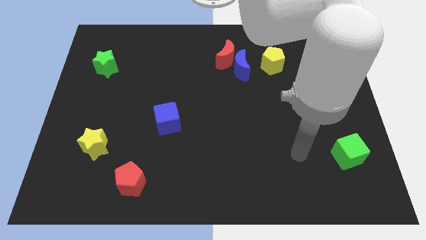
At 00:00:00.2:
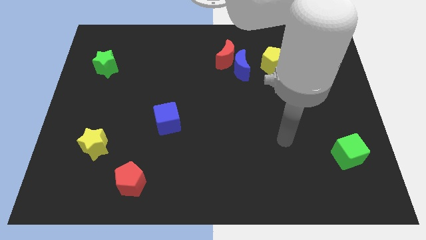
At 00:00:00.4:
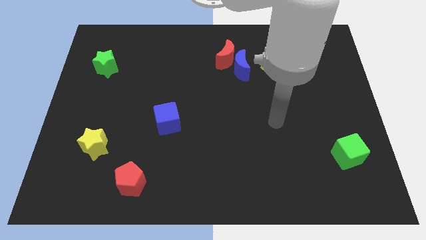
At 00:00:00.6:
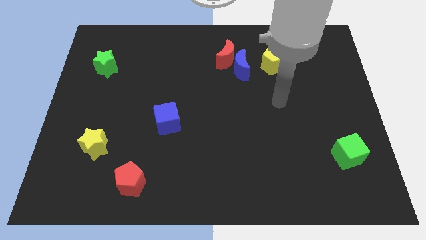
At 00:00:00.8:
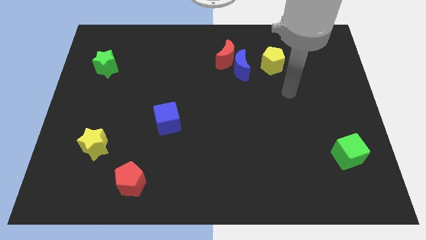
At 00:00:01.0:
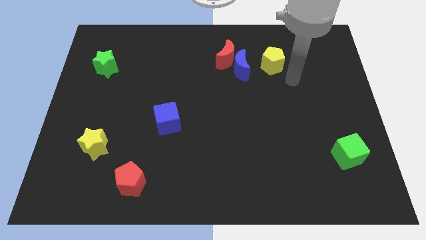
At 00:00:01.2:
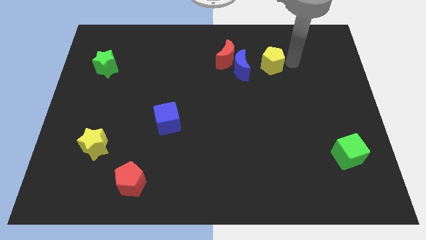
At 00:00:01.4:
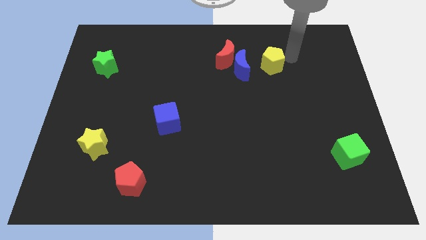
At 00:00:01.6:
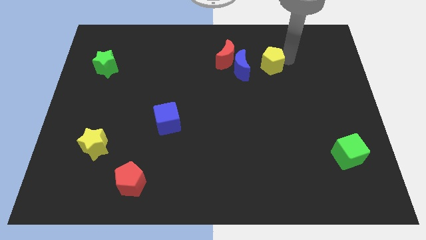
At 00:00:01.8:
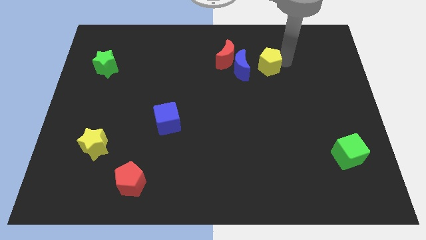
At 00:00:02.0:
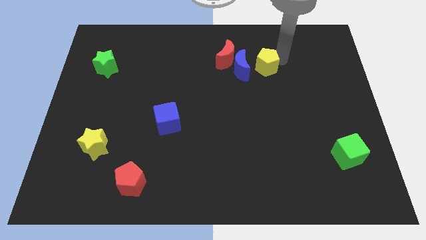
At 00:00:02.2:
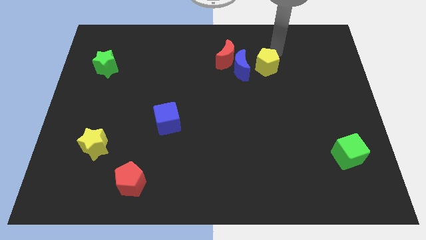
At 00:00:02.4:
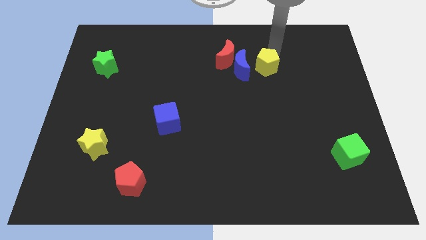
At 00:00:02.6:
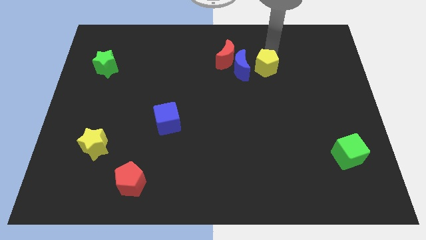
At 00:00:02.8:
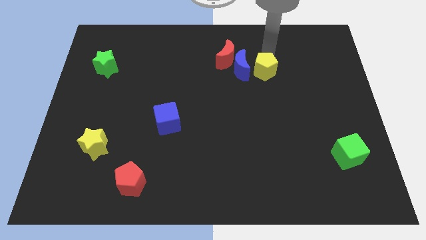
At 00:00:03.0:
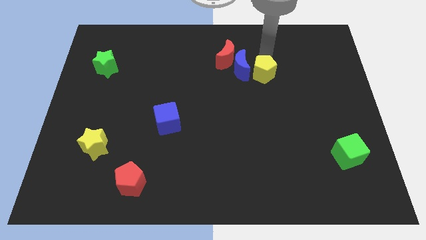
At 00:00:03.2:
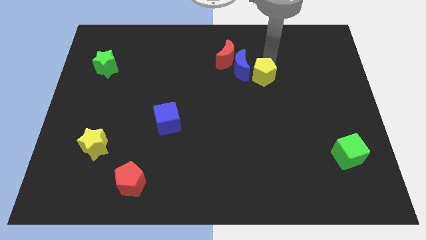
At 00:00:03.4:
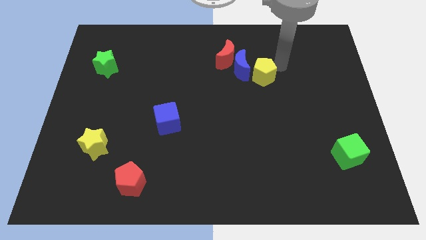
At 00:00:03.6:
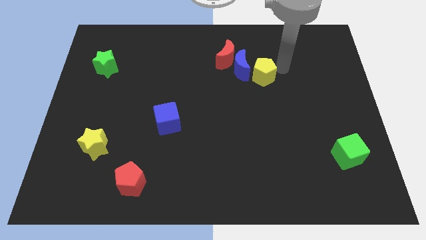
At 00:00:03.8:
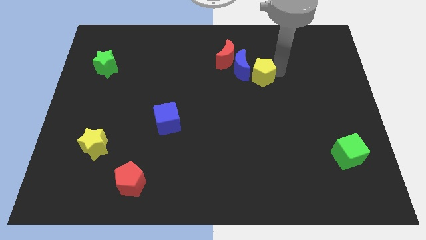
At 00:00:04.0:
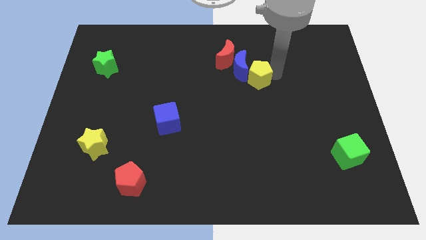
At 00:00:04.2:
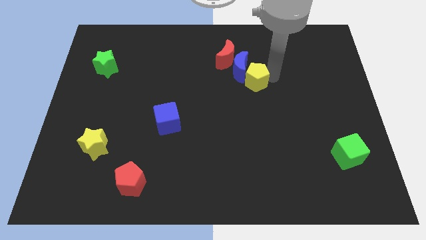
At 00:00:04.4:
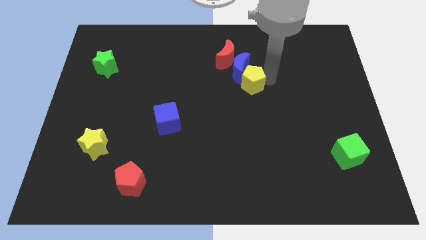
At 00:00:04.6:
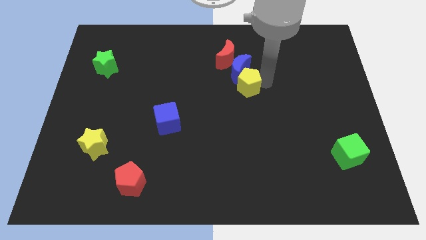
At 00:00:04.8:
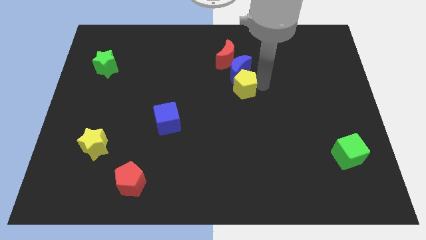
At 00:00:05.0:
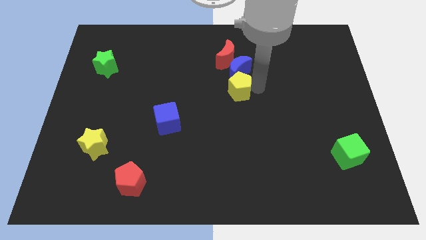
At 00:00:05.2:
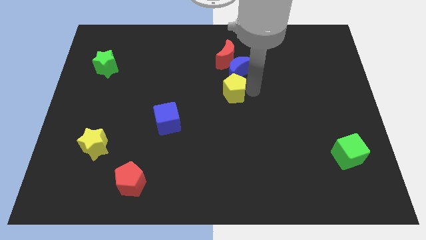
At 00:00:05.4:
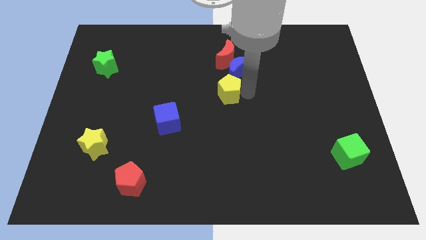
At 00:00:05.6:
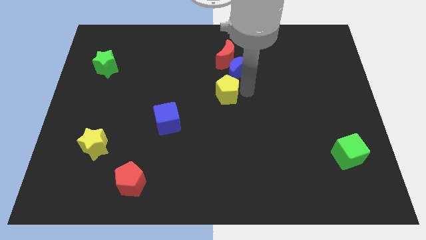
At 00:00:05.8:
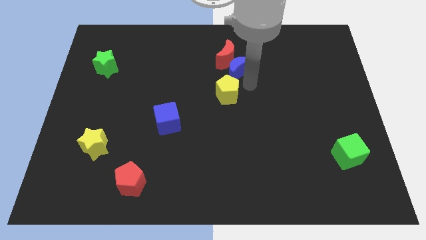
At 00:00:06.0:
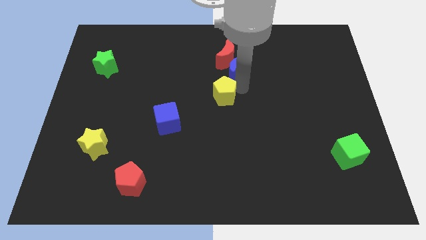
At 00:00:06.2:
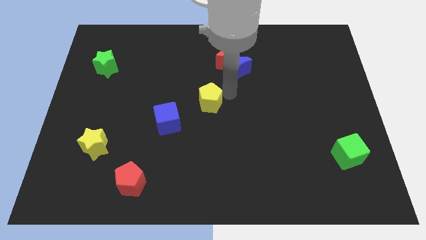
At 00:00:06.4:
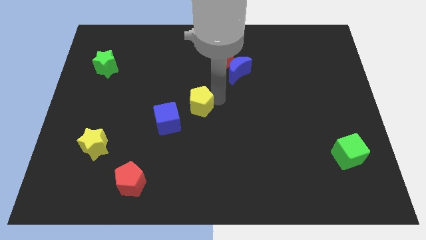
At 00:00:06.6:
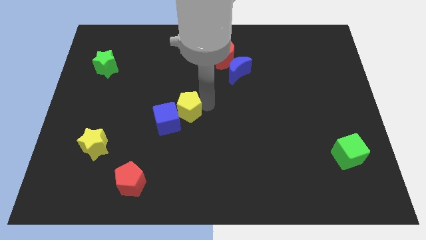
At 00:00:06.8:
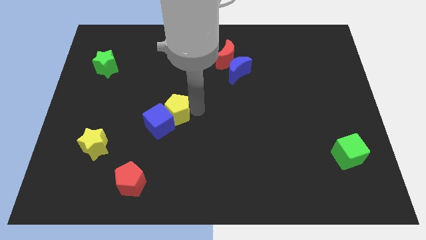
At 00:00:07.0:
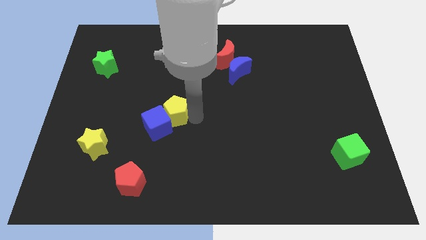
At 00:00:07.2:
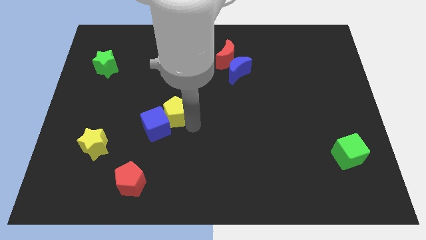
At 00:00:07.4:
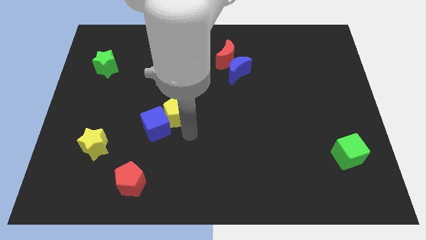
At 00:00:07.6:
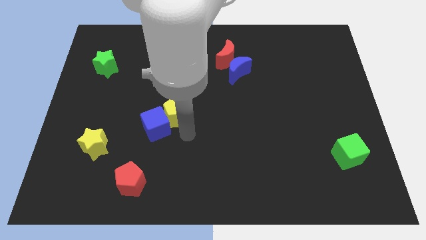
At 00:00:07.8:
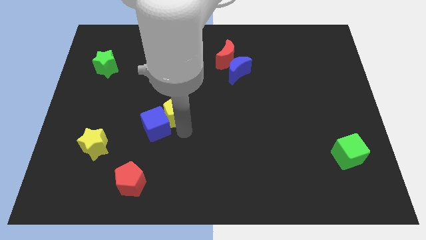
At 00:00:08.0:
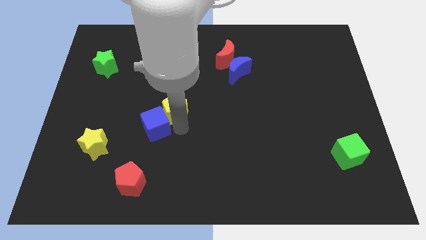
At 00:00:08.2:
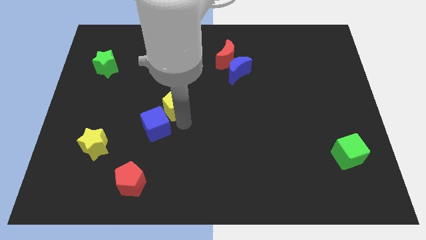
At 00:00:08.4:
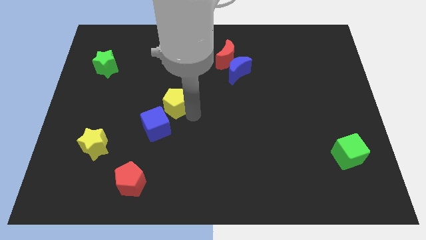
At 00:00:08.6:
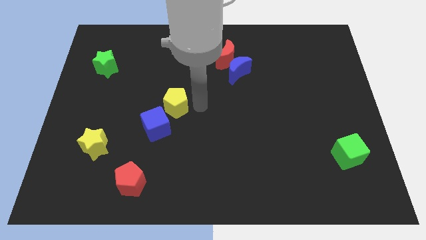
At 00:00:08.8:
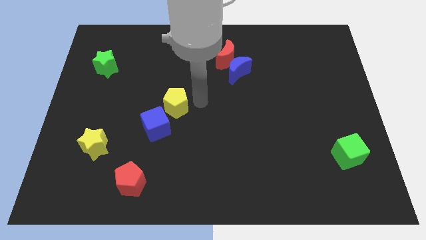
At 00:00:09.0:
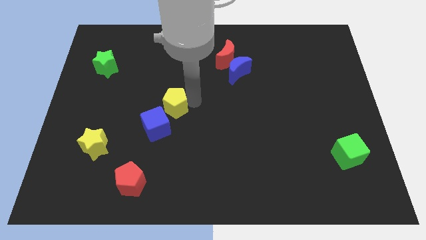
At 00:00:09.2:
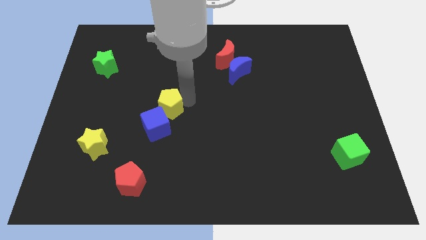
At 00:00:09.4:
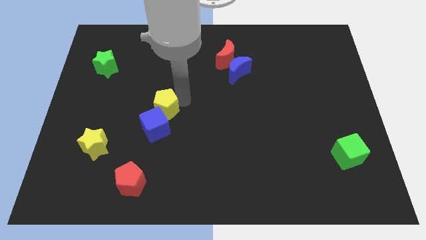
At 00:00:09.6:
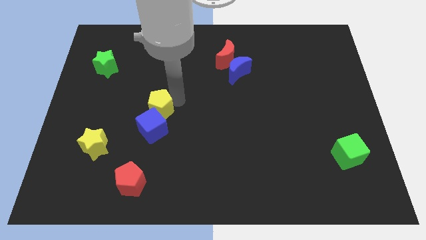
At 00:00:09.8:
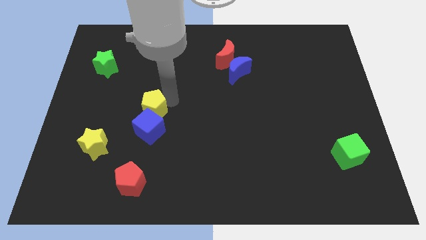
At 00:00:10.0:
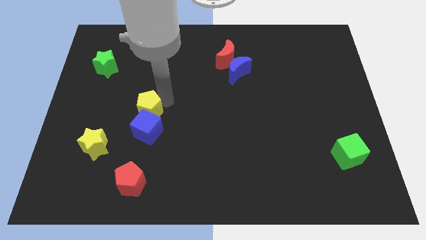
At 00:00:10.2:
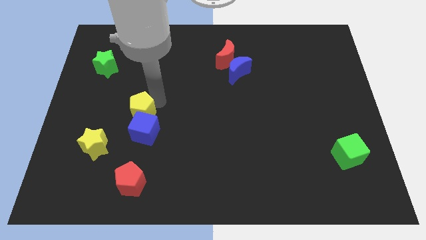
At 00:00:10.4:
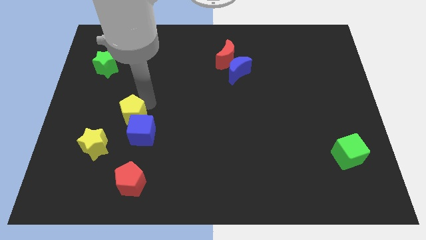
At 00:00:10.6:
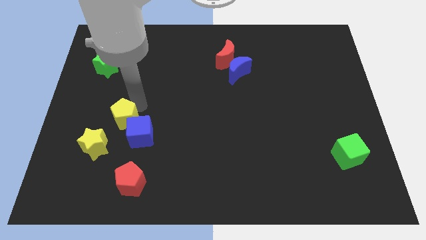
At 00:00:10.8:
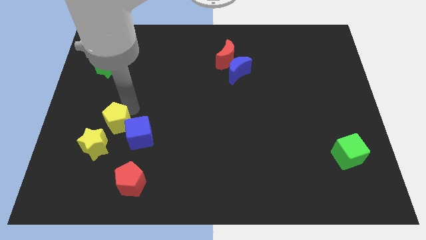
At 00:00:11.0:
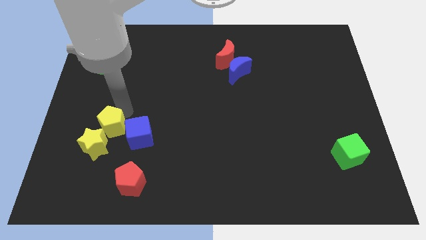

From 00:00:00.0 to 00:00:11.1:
push the yellow pentagon next to the yellow star
